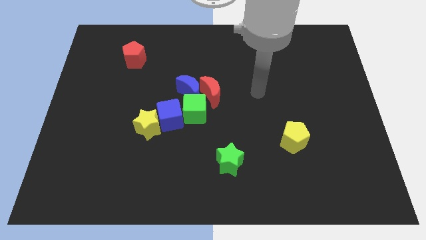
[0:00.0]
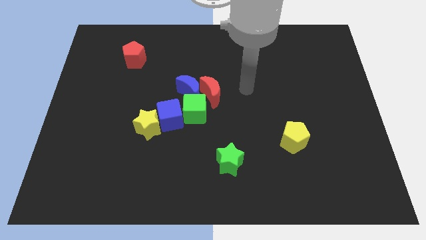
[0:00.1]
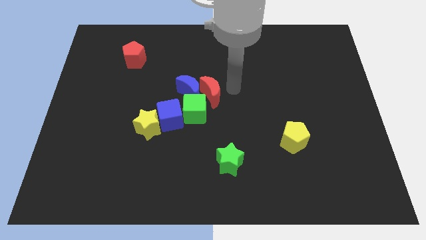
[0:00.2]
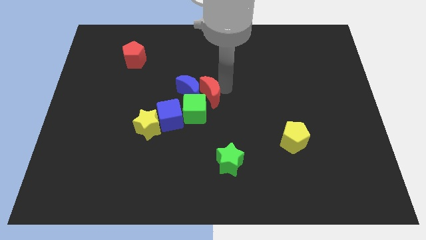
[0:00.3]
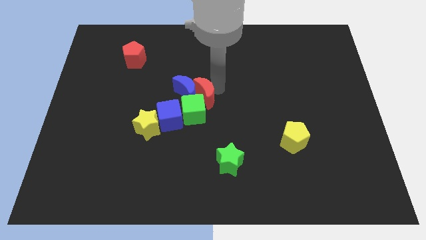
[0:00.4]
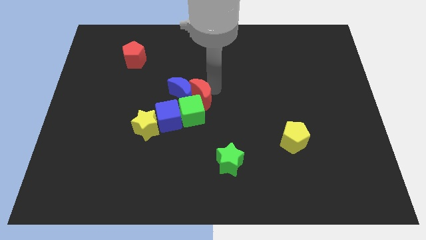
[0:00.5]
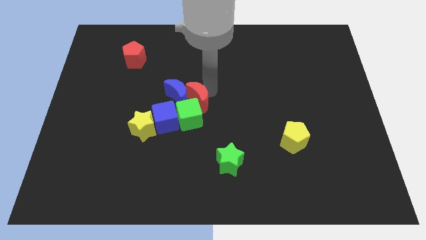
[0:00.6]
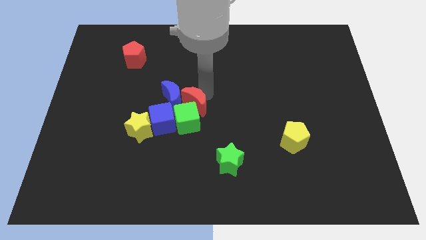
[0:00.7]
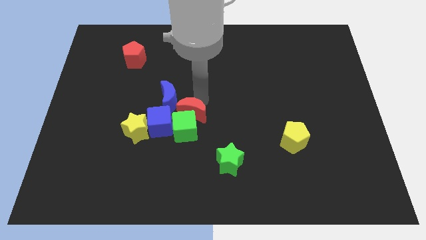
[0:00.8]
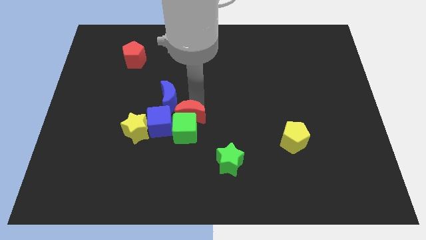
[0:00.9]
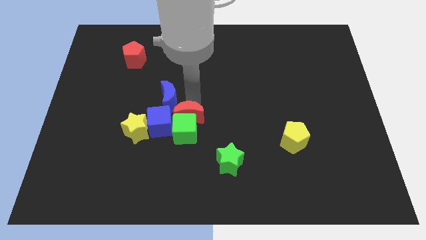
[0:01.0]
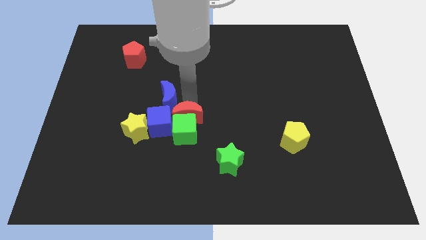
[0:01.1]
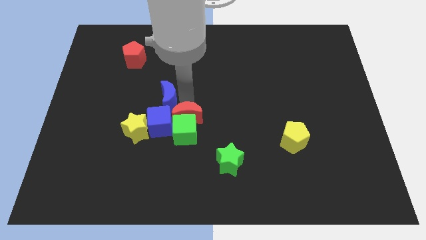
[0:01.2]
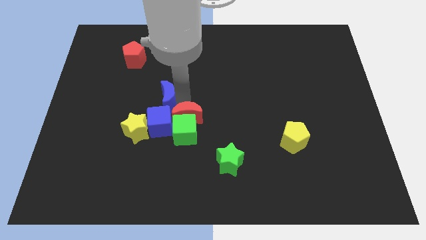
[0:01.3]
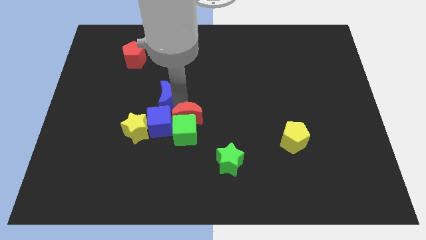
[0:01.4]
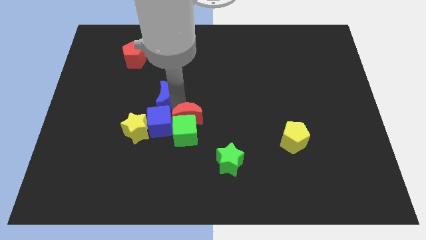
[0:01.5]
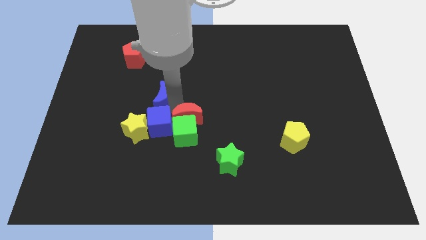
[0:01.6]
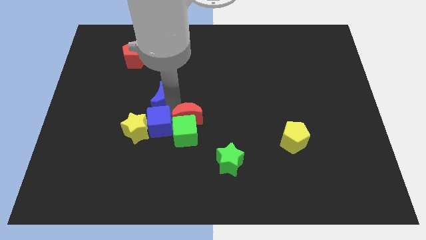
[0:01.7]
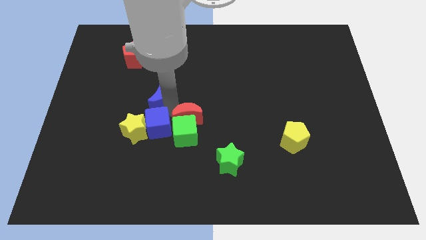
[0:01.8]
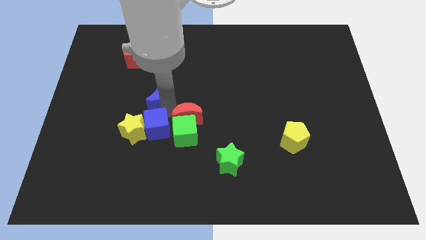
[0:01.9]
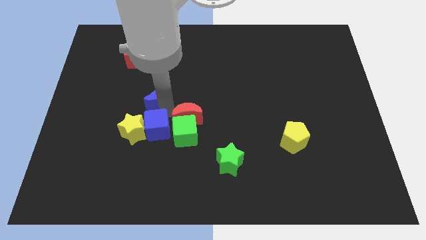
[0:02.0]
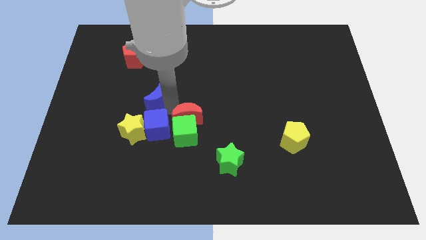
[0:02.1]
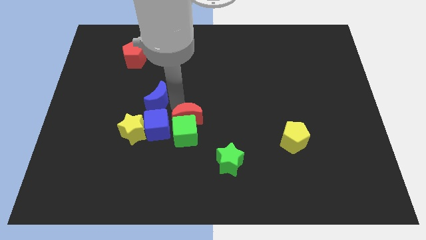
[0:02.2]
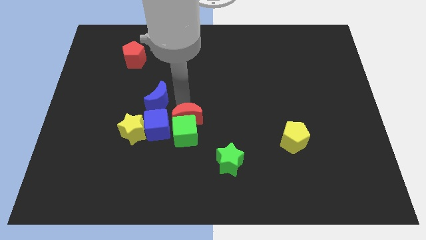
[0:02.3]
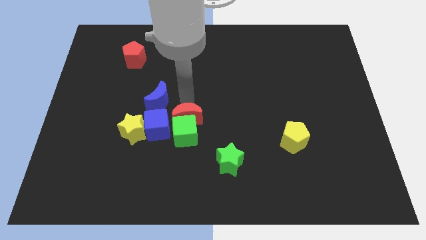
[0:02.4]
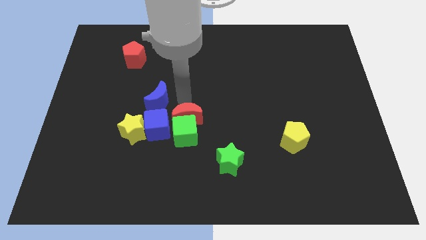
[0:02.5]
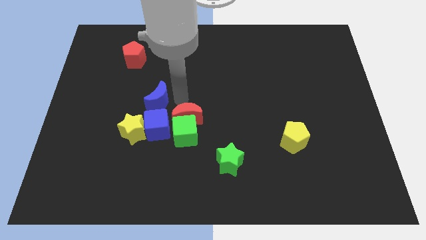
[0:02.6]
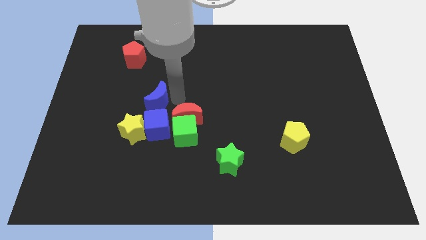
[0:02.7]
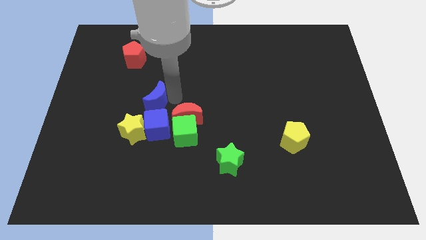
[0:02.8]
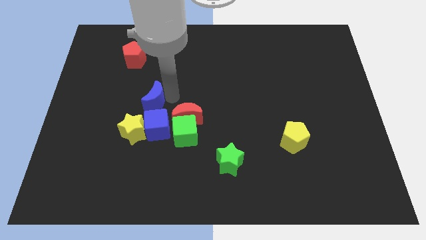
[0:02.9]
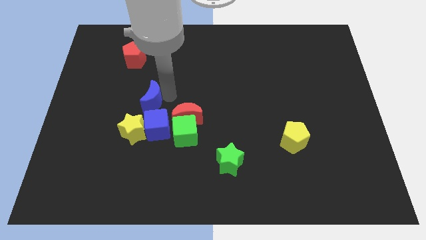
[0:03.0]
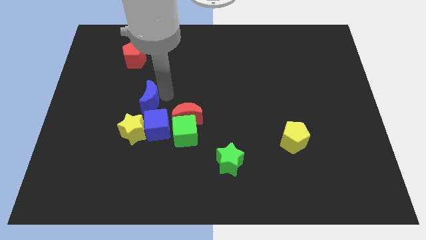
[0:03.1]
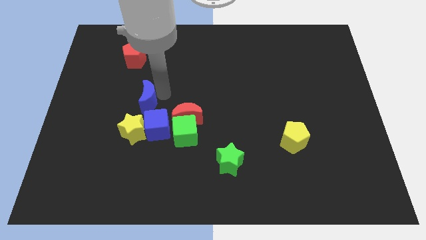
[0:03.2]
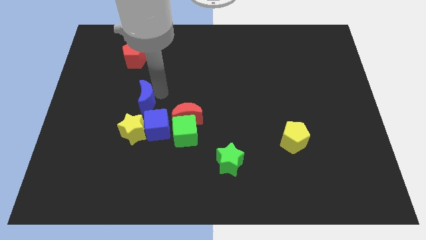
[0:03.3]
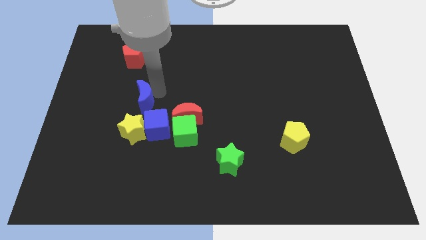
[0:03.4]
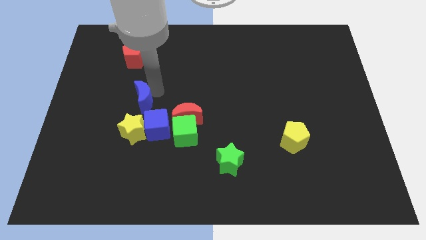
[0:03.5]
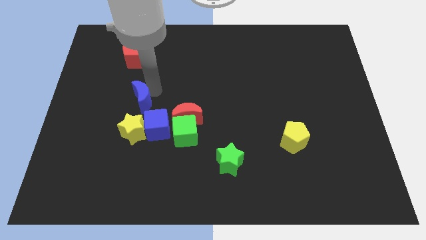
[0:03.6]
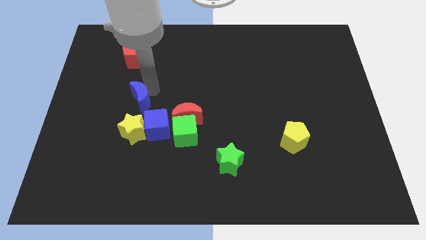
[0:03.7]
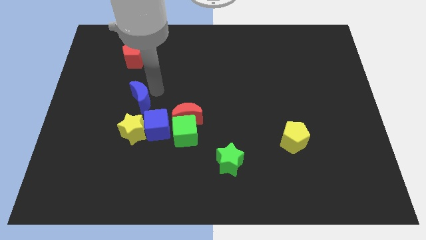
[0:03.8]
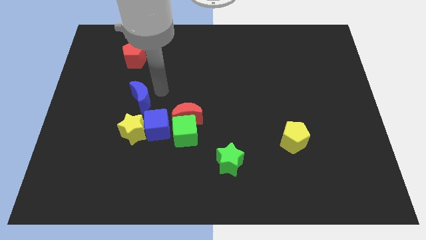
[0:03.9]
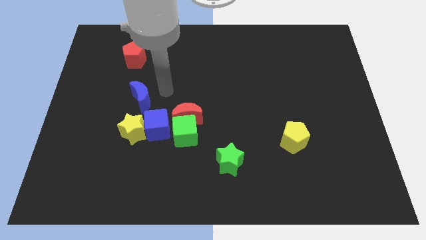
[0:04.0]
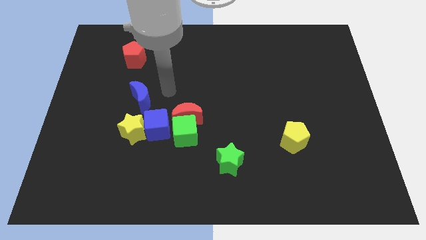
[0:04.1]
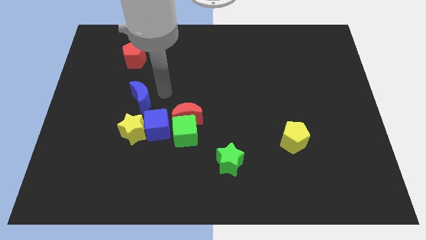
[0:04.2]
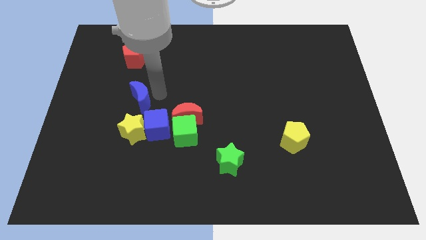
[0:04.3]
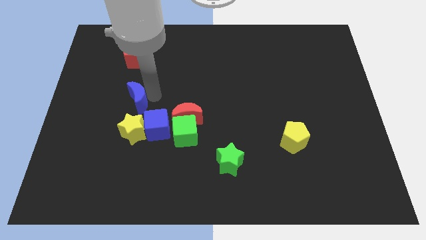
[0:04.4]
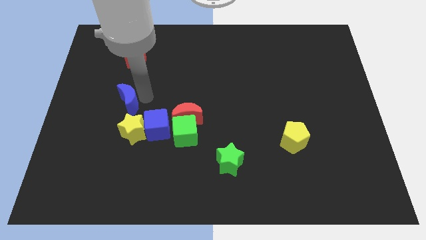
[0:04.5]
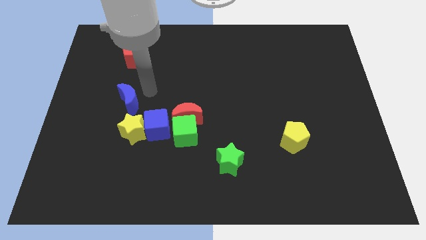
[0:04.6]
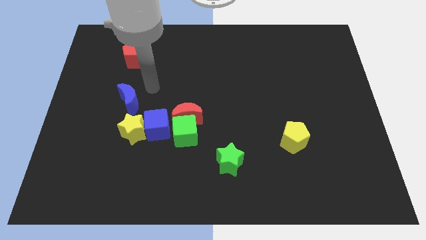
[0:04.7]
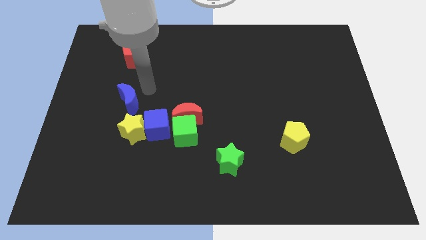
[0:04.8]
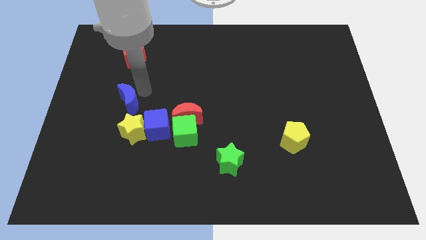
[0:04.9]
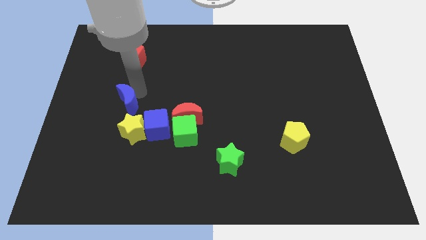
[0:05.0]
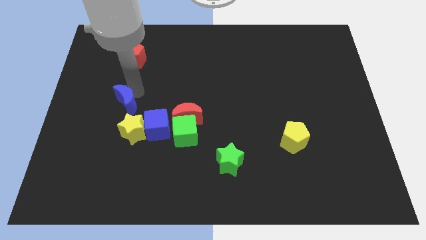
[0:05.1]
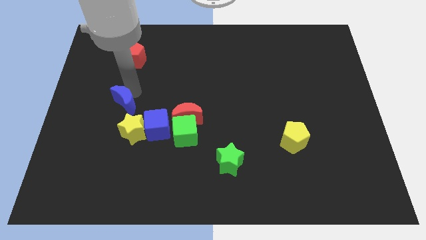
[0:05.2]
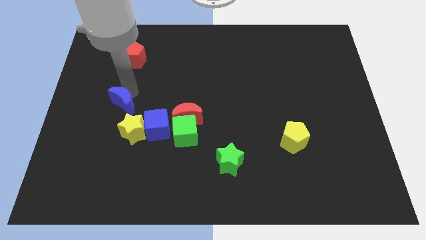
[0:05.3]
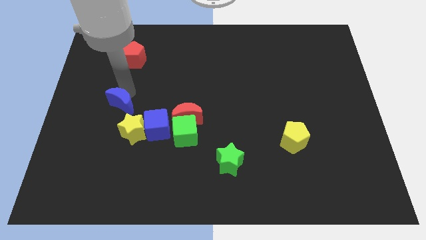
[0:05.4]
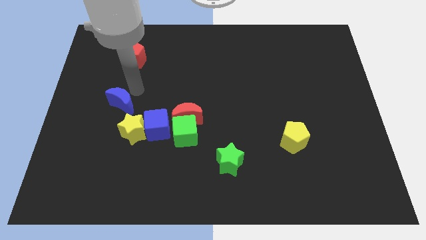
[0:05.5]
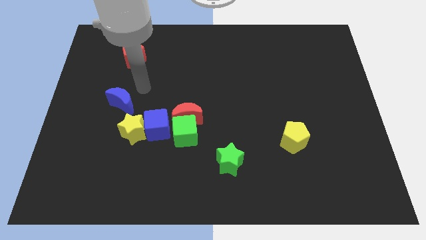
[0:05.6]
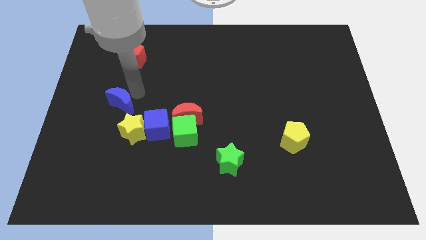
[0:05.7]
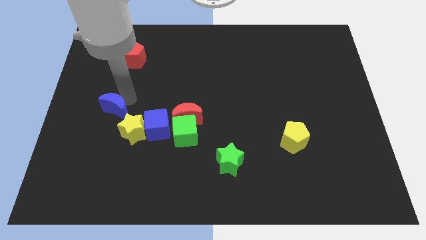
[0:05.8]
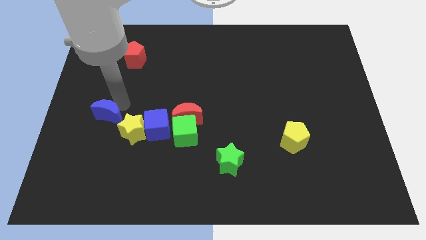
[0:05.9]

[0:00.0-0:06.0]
move the blue moon to the left of the yellow star

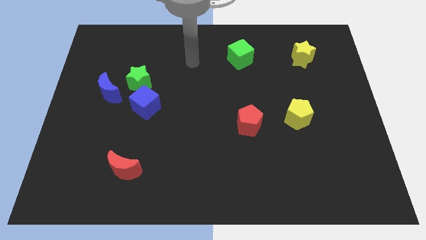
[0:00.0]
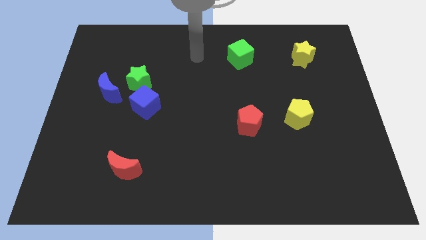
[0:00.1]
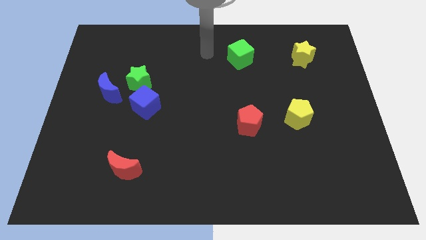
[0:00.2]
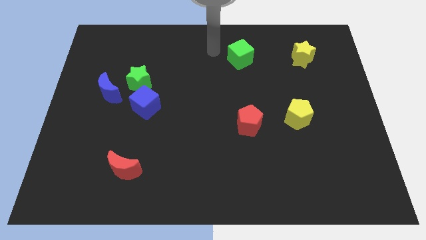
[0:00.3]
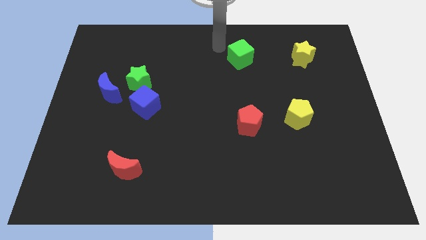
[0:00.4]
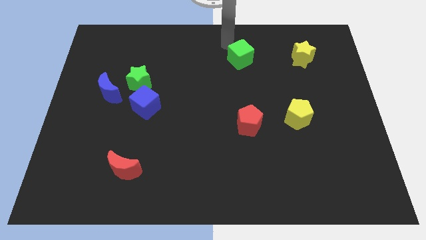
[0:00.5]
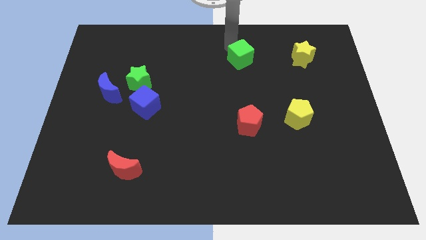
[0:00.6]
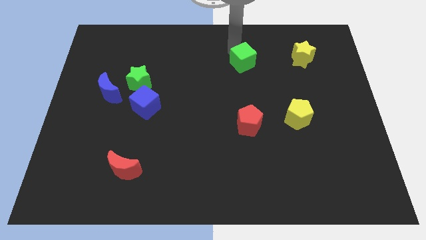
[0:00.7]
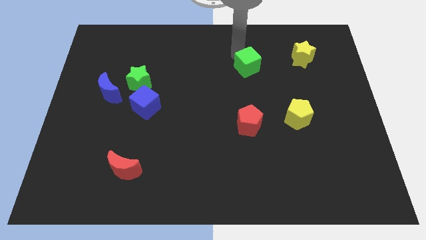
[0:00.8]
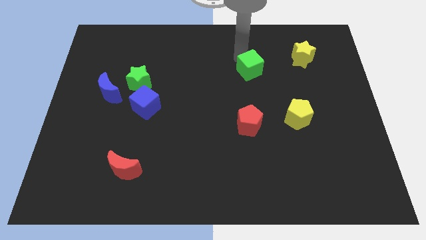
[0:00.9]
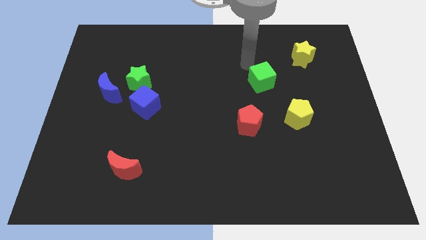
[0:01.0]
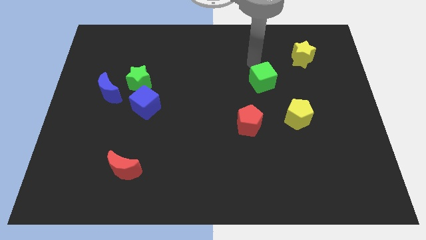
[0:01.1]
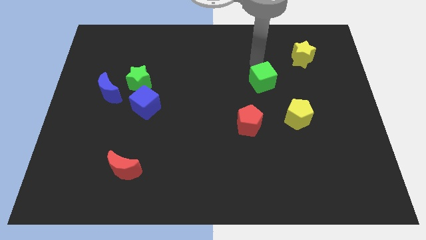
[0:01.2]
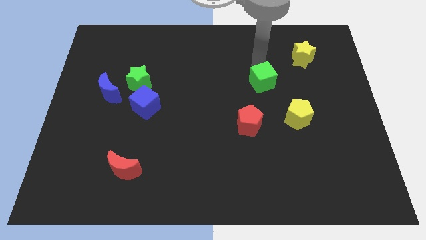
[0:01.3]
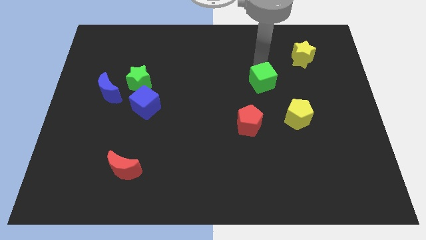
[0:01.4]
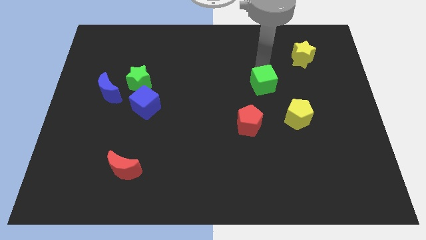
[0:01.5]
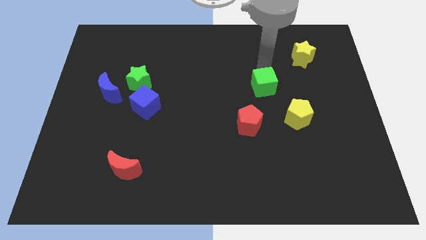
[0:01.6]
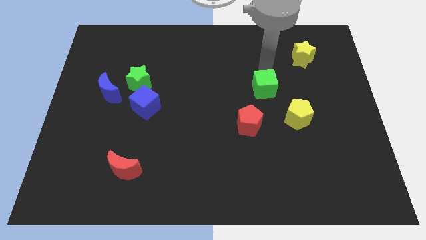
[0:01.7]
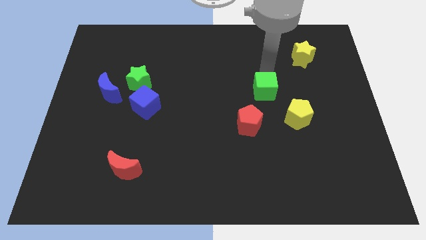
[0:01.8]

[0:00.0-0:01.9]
move the green cube to the top right of the red pentagon

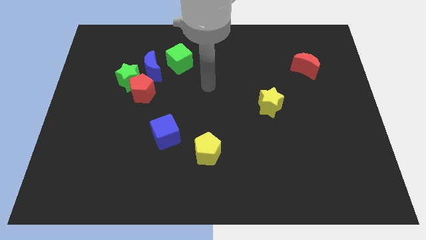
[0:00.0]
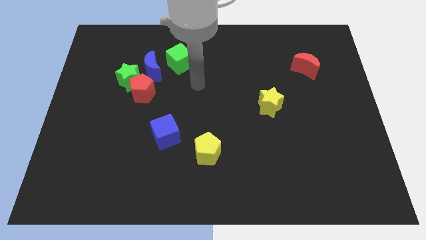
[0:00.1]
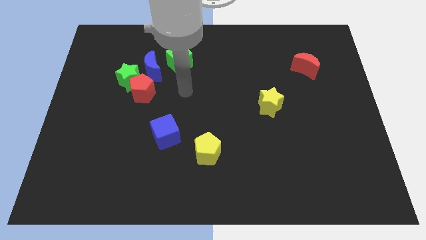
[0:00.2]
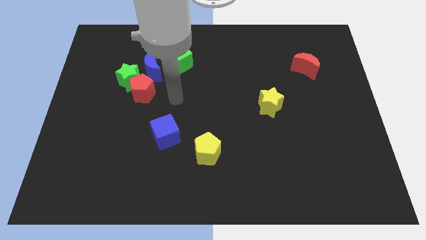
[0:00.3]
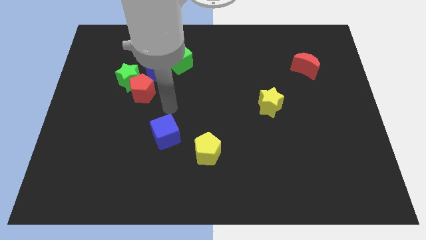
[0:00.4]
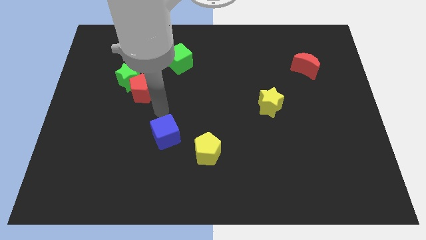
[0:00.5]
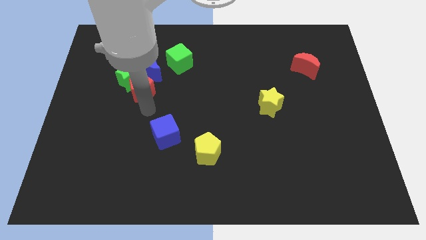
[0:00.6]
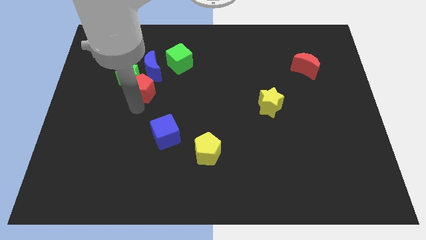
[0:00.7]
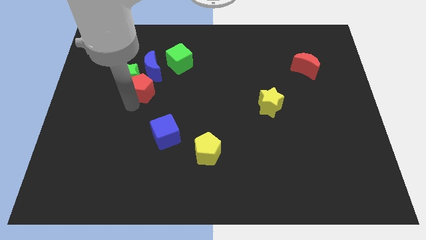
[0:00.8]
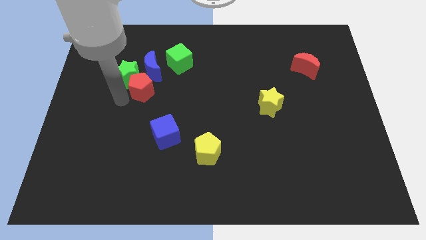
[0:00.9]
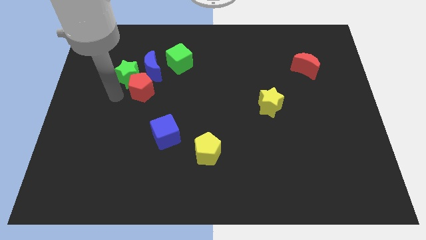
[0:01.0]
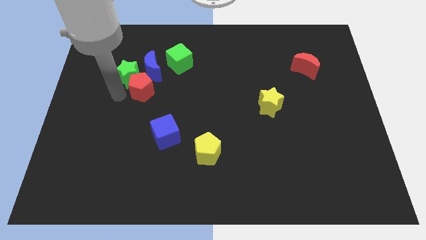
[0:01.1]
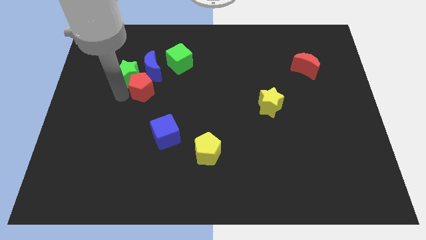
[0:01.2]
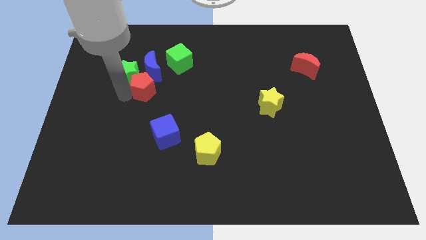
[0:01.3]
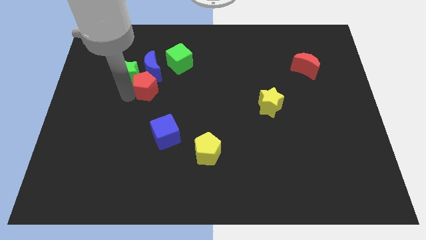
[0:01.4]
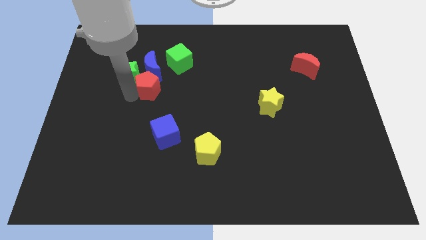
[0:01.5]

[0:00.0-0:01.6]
put the red pentagon diagonally down and to the right of the blue moon
